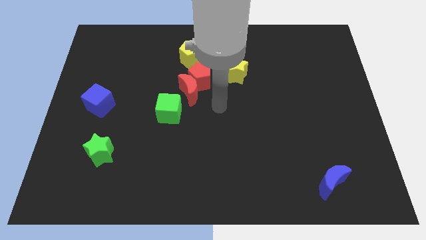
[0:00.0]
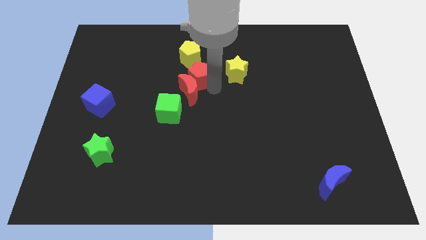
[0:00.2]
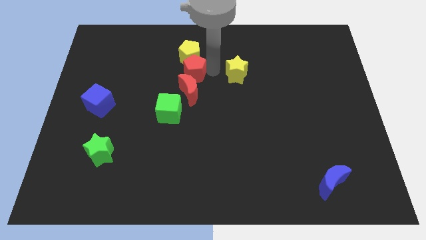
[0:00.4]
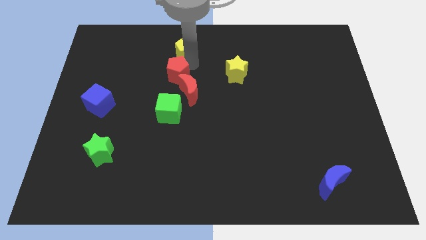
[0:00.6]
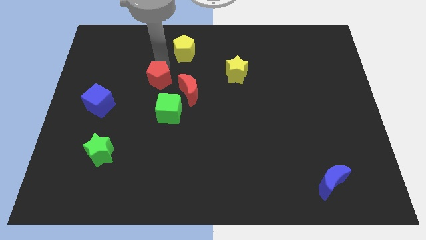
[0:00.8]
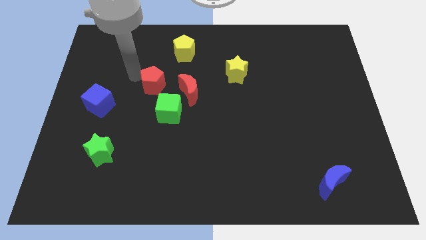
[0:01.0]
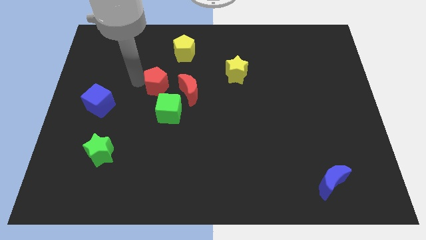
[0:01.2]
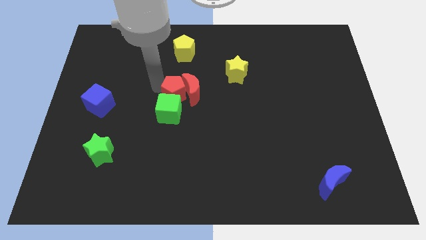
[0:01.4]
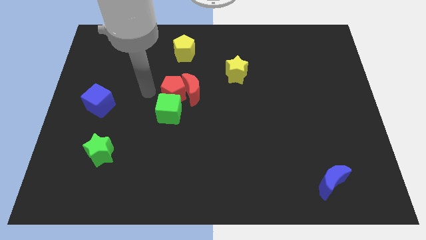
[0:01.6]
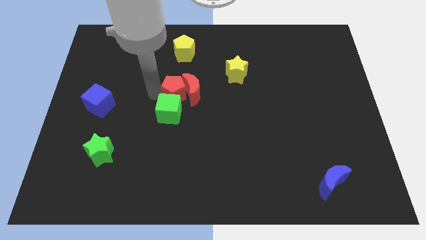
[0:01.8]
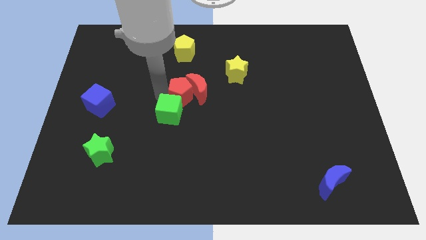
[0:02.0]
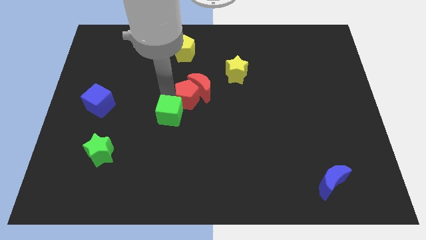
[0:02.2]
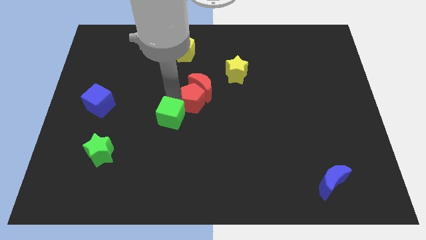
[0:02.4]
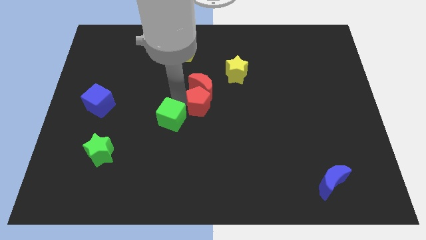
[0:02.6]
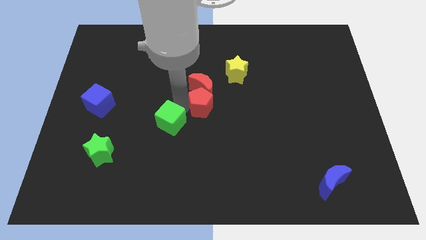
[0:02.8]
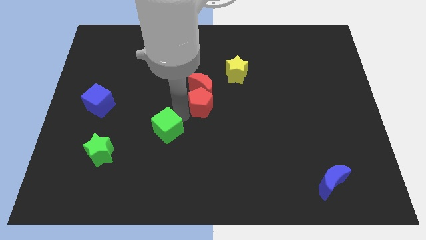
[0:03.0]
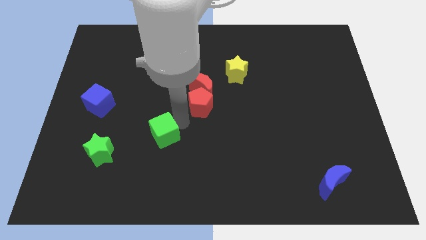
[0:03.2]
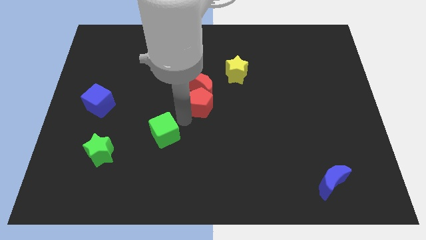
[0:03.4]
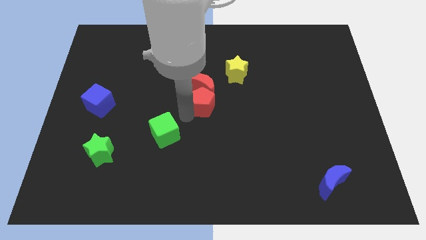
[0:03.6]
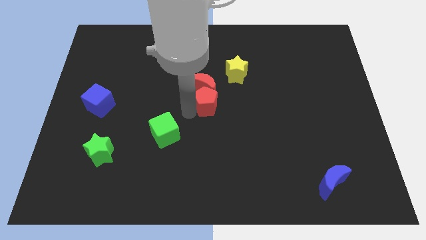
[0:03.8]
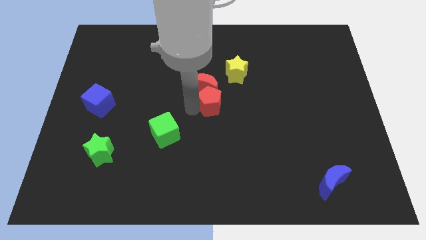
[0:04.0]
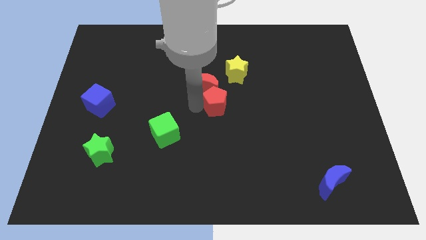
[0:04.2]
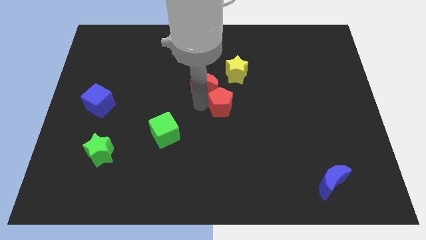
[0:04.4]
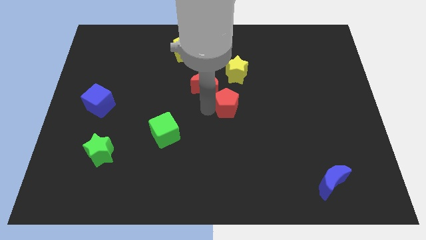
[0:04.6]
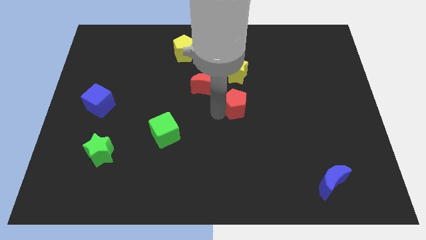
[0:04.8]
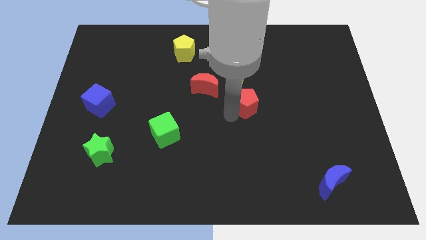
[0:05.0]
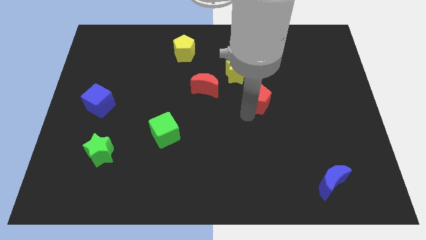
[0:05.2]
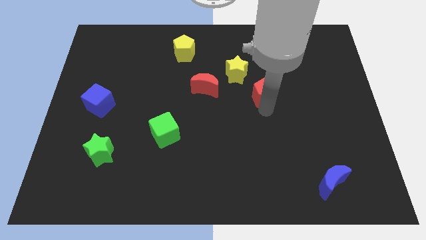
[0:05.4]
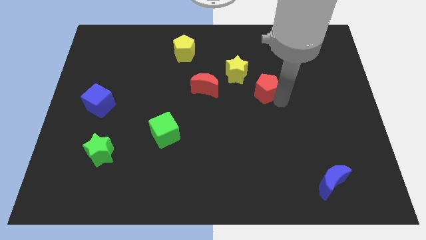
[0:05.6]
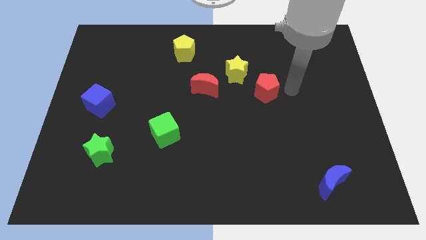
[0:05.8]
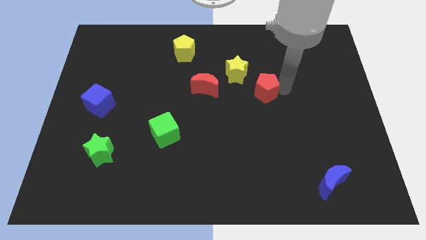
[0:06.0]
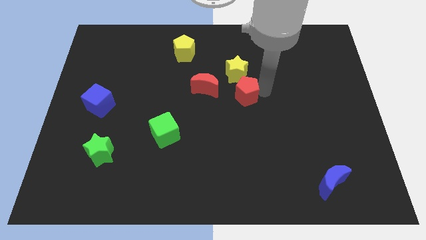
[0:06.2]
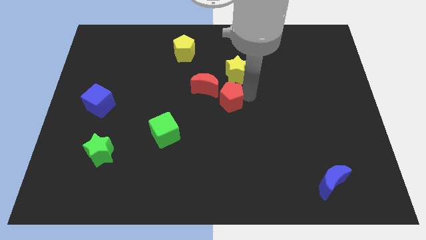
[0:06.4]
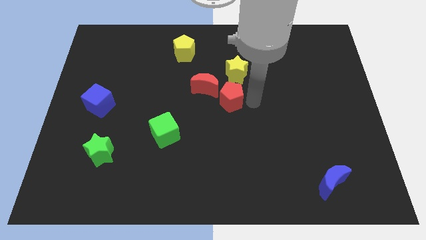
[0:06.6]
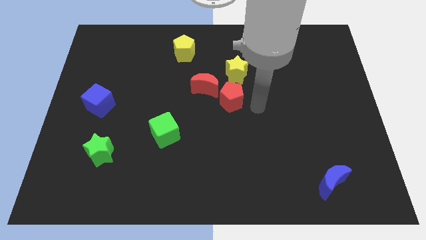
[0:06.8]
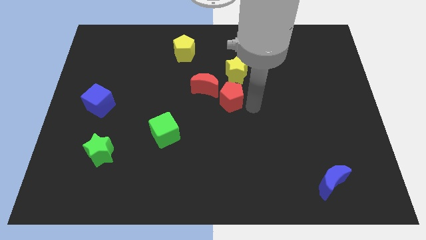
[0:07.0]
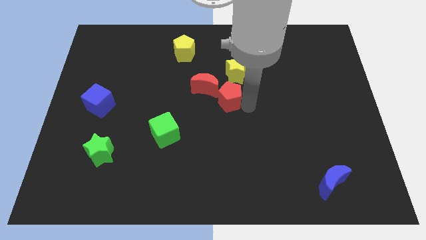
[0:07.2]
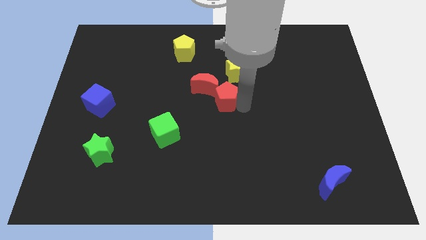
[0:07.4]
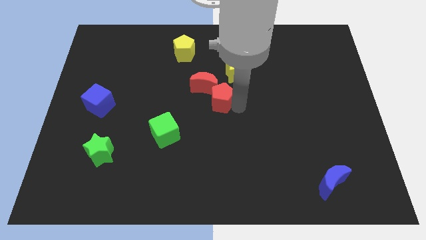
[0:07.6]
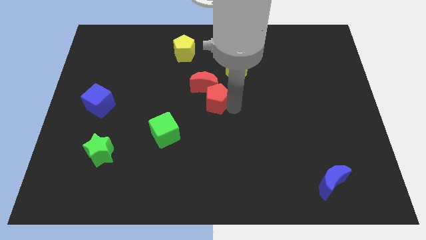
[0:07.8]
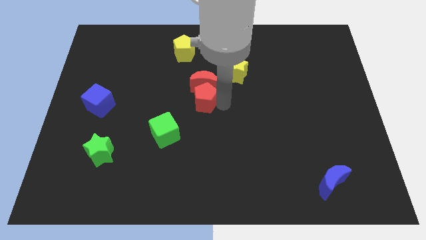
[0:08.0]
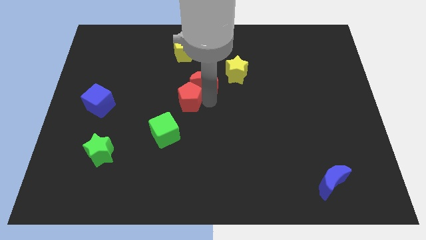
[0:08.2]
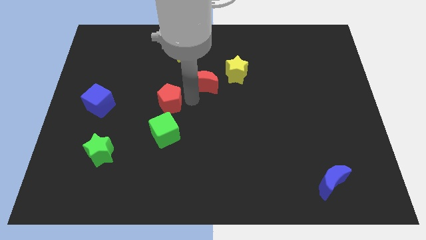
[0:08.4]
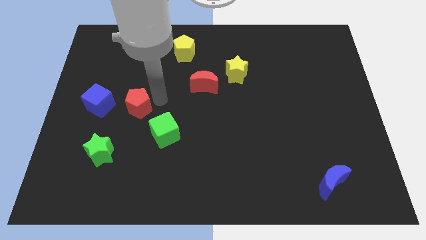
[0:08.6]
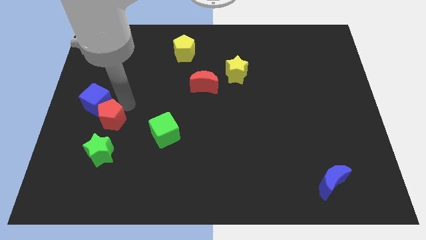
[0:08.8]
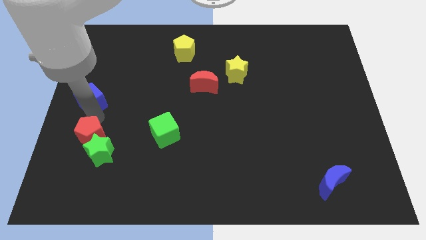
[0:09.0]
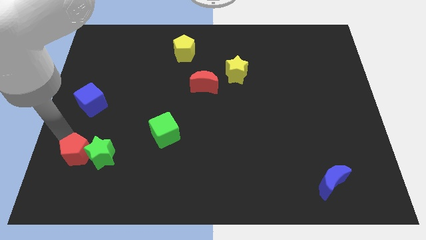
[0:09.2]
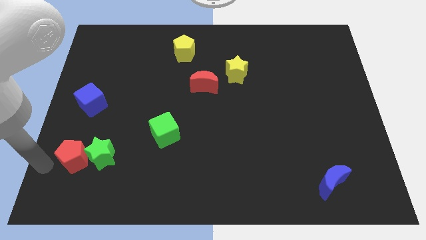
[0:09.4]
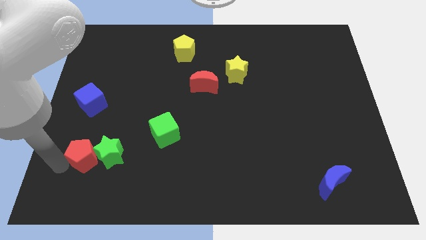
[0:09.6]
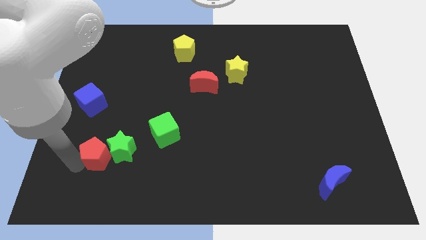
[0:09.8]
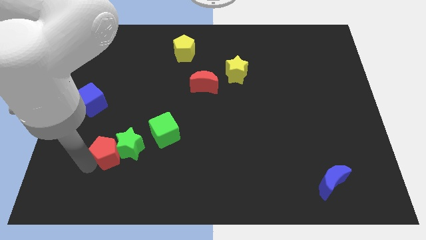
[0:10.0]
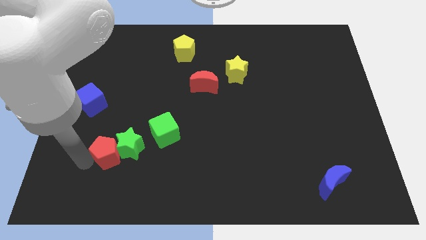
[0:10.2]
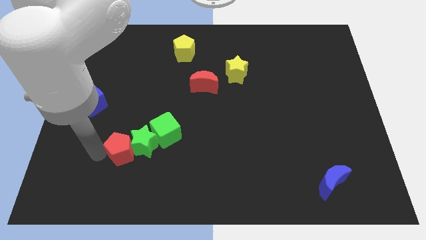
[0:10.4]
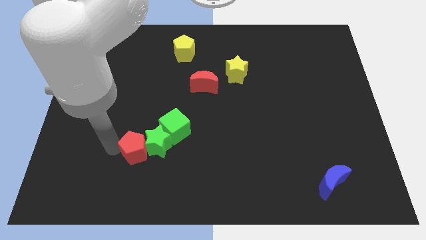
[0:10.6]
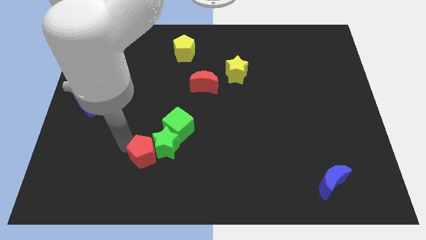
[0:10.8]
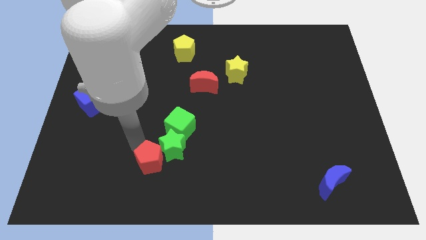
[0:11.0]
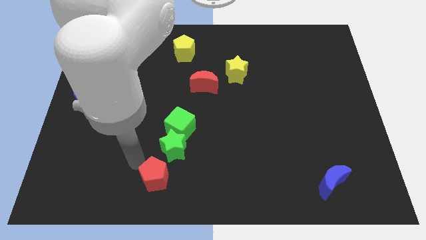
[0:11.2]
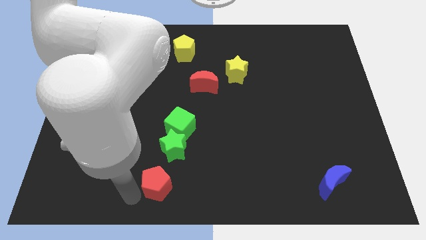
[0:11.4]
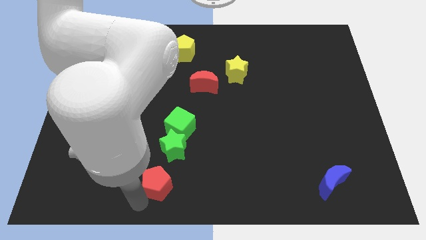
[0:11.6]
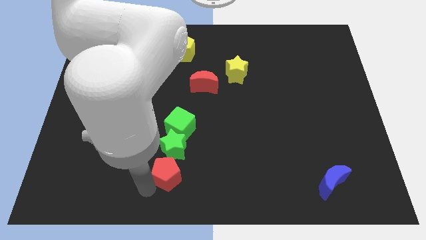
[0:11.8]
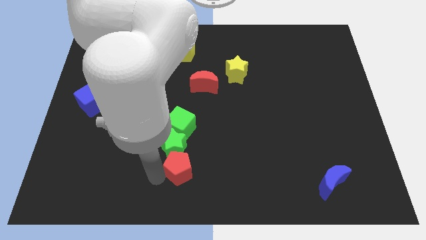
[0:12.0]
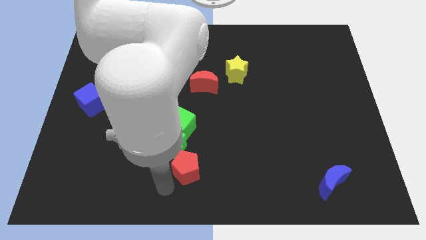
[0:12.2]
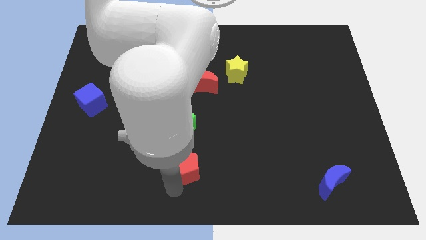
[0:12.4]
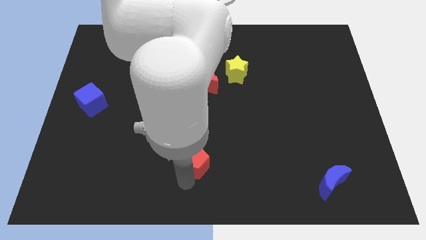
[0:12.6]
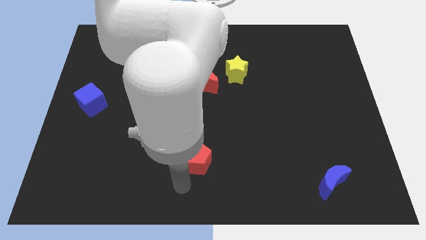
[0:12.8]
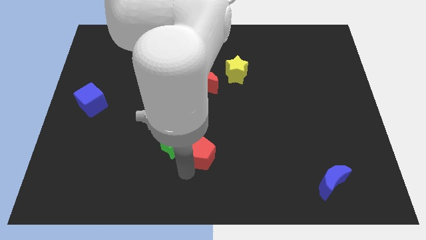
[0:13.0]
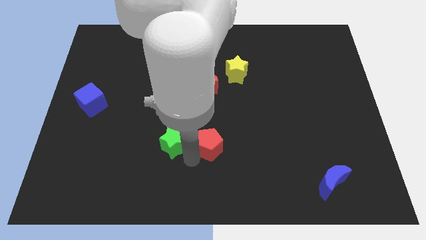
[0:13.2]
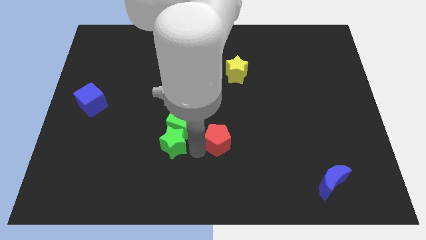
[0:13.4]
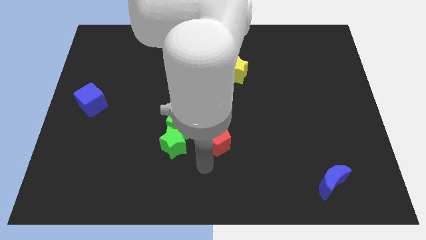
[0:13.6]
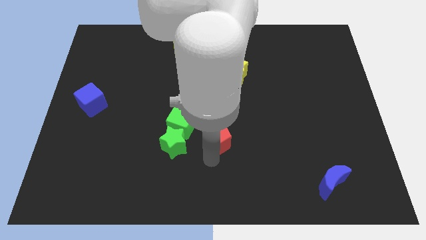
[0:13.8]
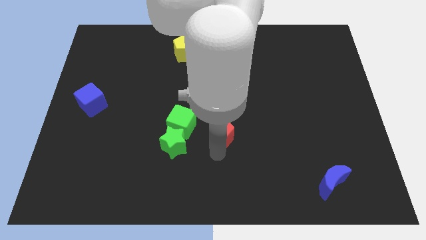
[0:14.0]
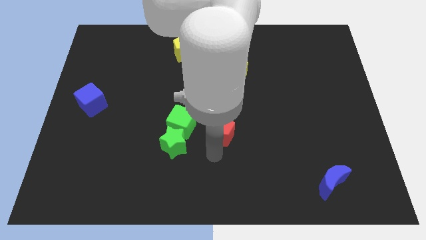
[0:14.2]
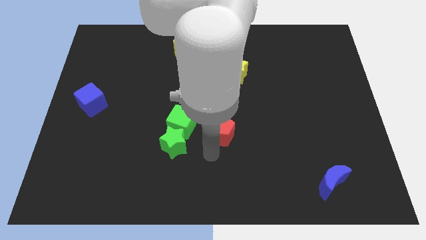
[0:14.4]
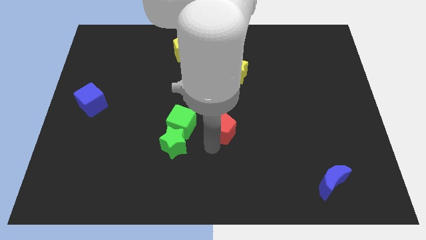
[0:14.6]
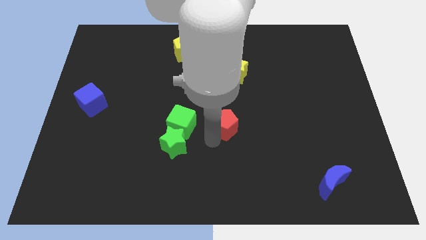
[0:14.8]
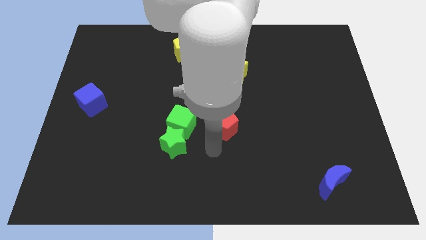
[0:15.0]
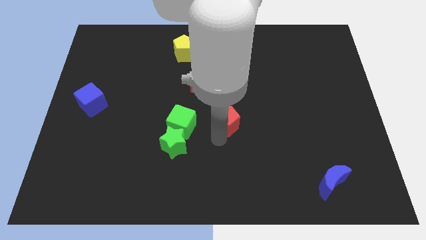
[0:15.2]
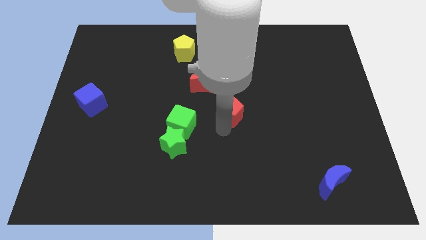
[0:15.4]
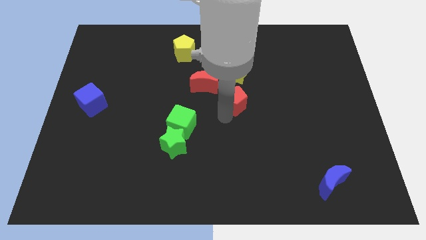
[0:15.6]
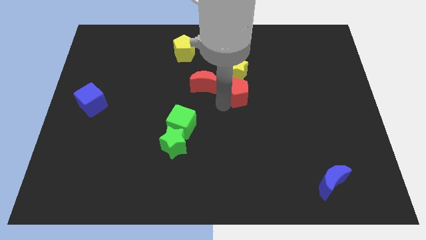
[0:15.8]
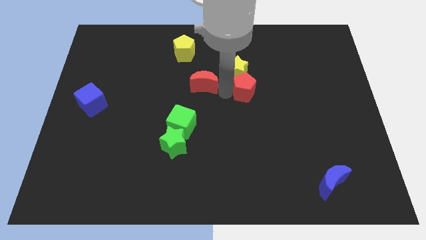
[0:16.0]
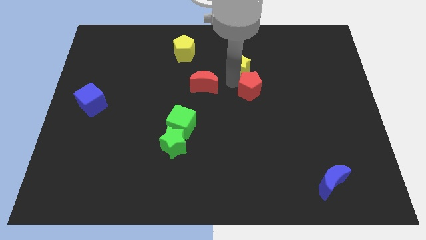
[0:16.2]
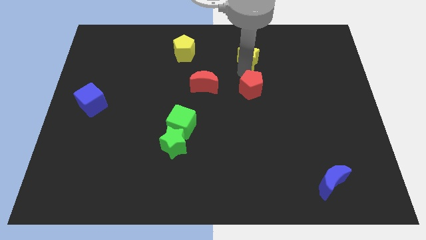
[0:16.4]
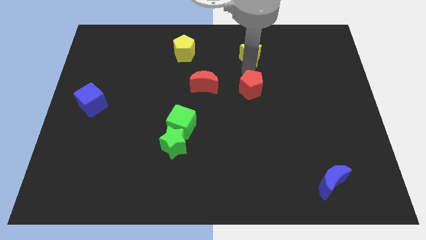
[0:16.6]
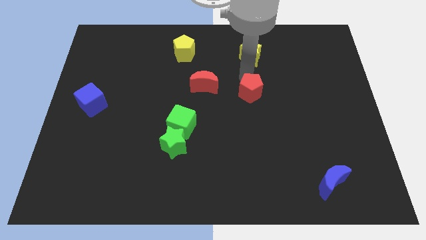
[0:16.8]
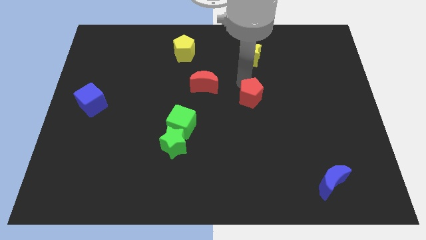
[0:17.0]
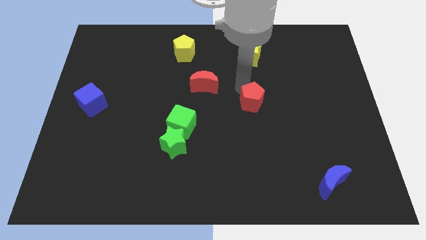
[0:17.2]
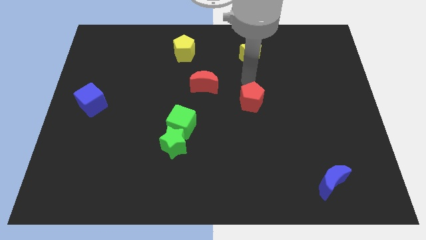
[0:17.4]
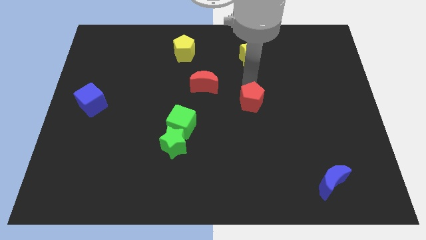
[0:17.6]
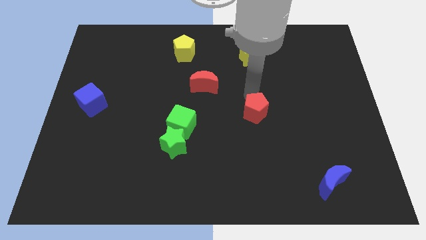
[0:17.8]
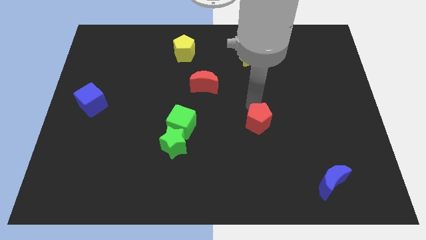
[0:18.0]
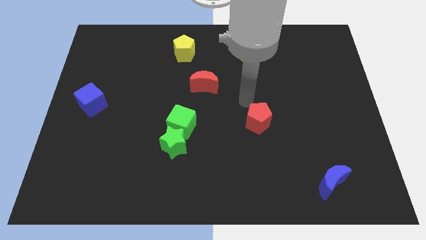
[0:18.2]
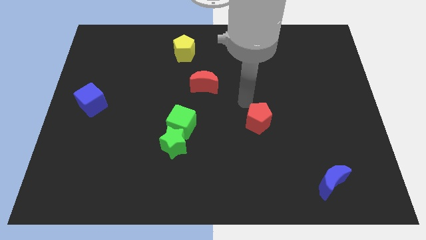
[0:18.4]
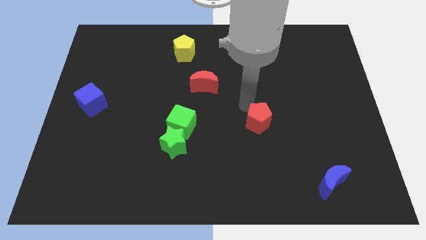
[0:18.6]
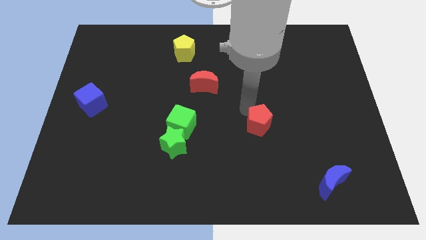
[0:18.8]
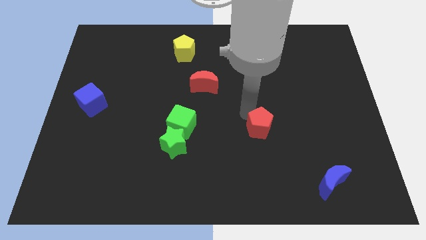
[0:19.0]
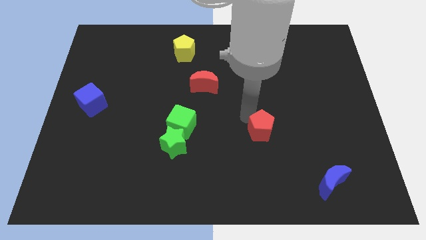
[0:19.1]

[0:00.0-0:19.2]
slide the red pentagon diagonally downwards and right
